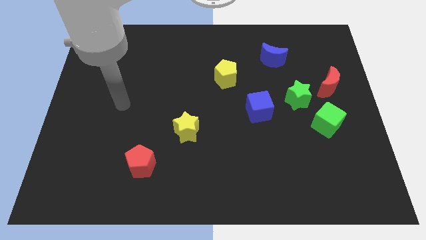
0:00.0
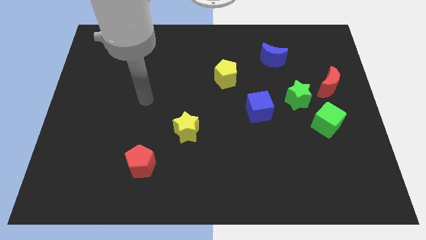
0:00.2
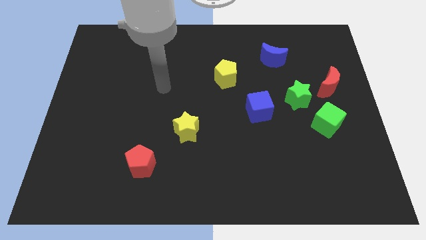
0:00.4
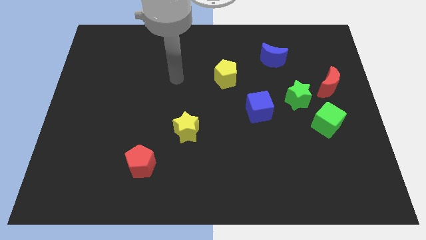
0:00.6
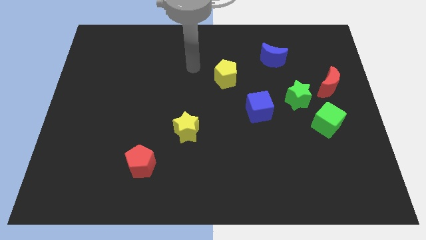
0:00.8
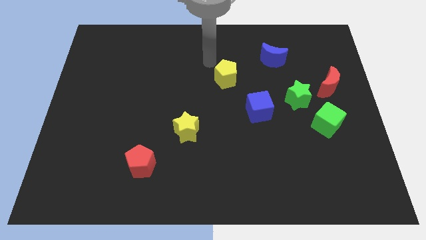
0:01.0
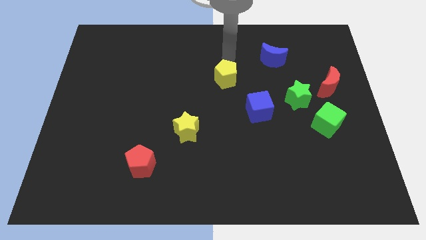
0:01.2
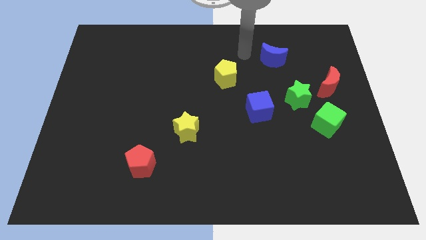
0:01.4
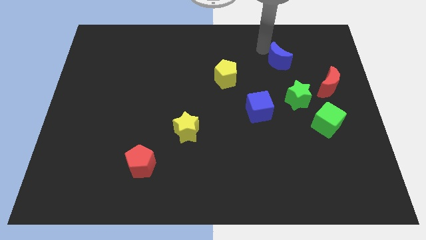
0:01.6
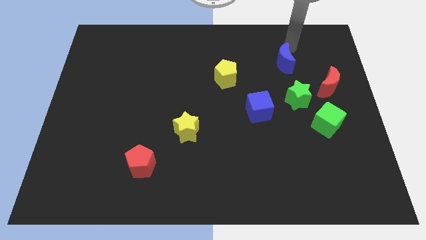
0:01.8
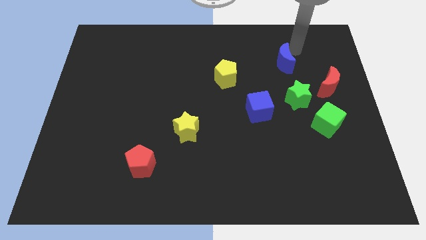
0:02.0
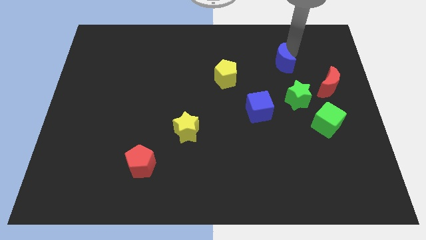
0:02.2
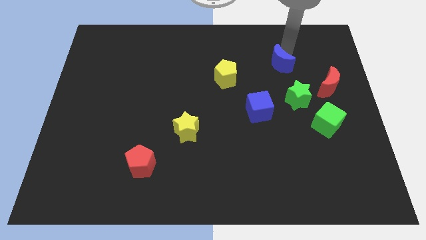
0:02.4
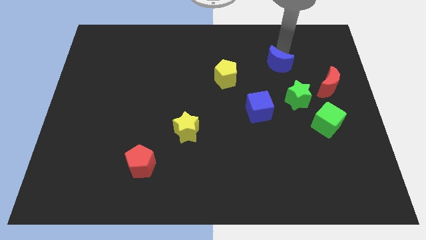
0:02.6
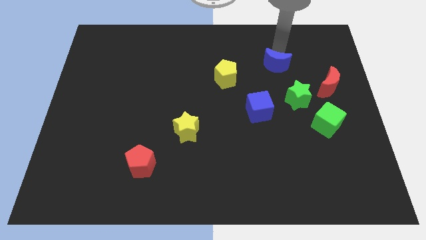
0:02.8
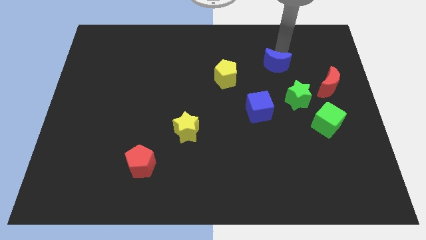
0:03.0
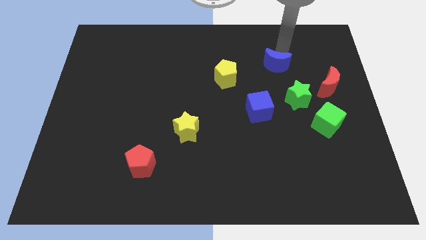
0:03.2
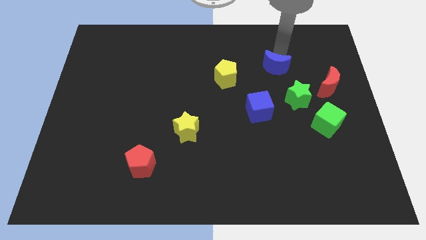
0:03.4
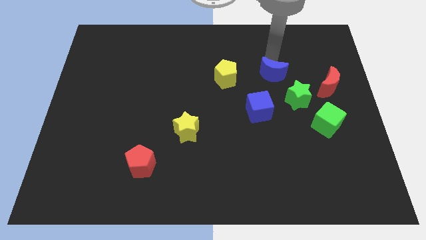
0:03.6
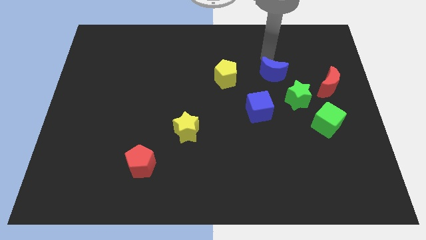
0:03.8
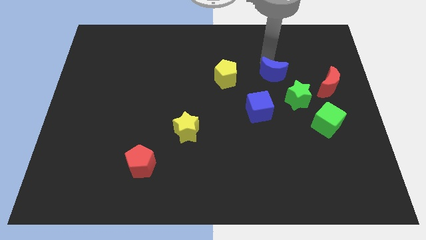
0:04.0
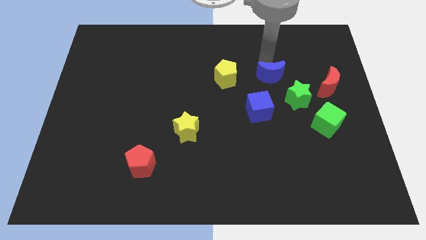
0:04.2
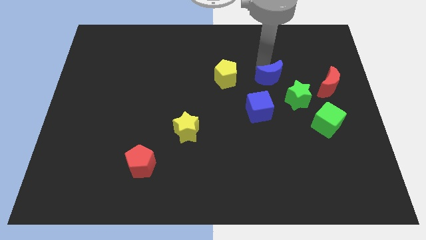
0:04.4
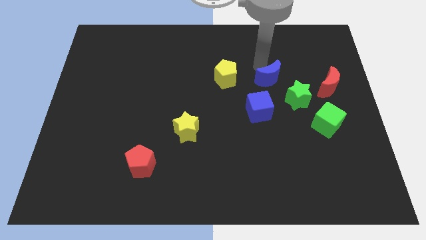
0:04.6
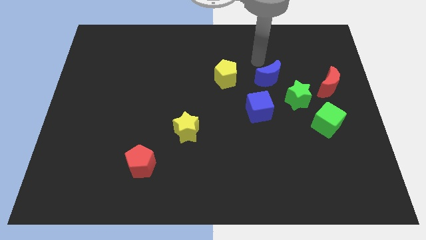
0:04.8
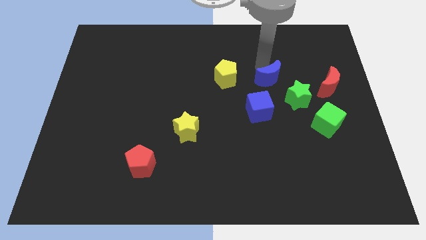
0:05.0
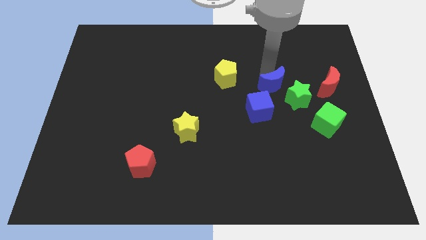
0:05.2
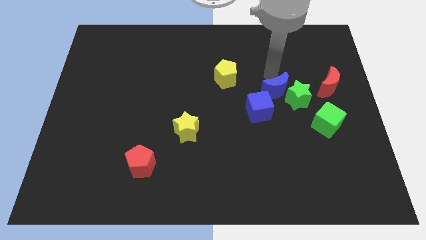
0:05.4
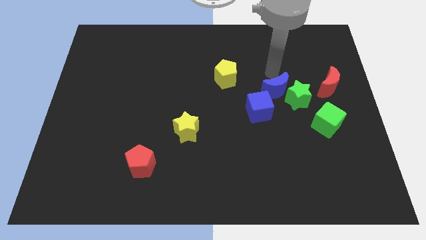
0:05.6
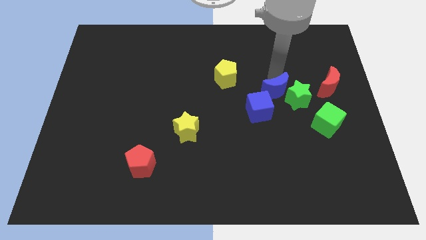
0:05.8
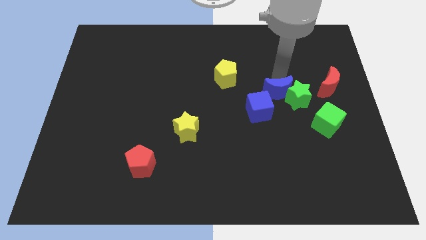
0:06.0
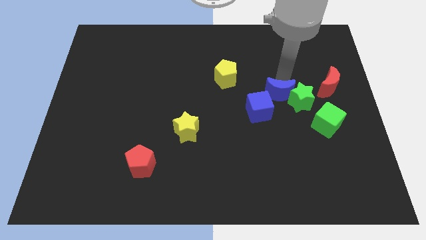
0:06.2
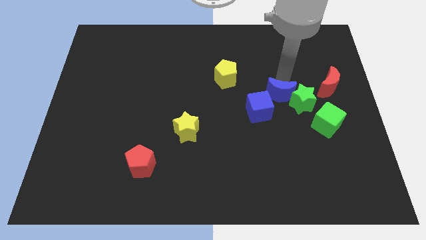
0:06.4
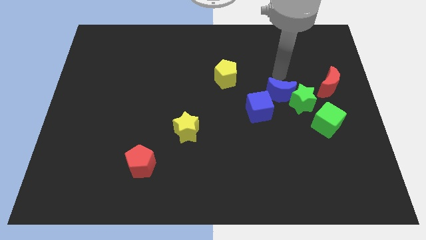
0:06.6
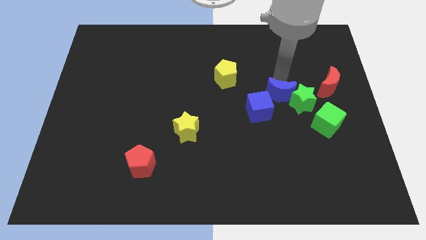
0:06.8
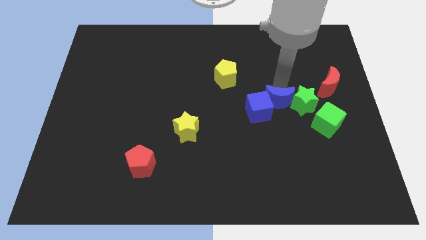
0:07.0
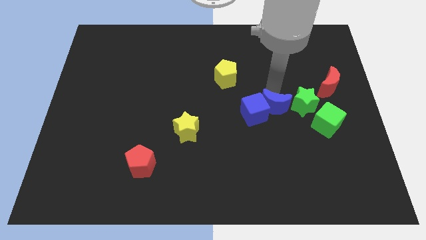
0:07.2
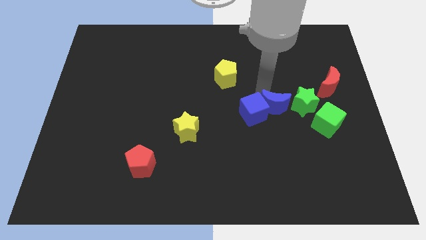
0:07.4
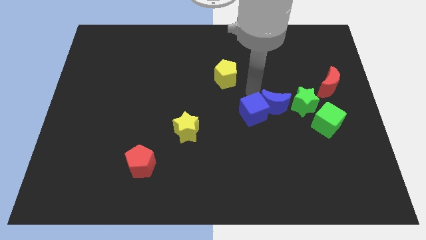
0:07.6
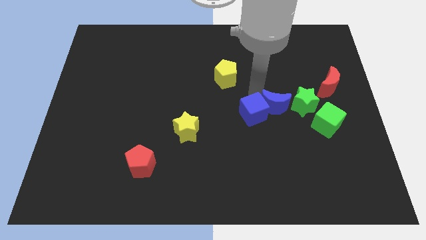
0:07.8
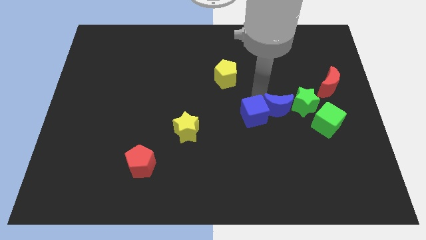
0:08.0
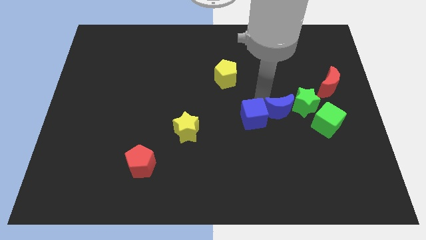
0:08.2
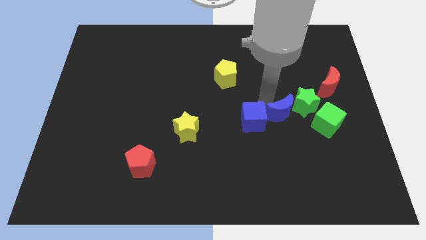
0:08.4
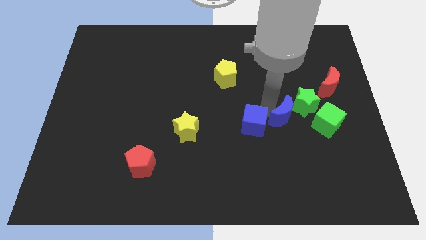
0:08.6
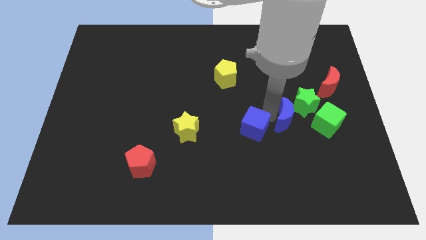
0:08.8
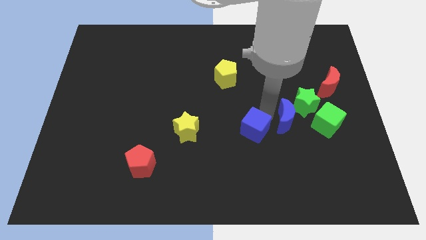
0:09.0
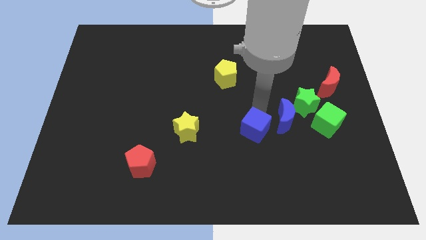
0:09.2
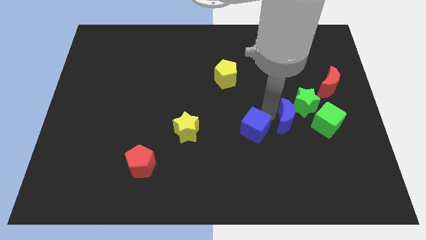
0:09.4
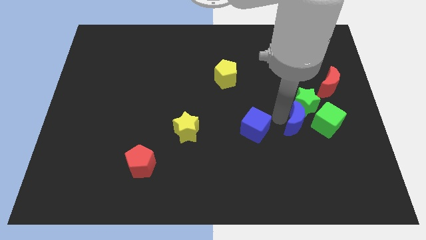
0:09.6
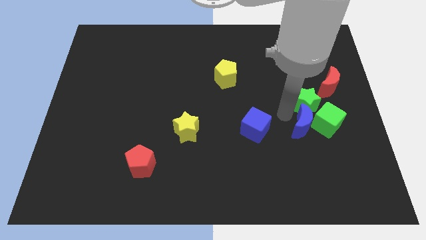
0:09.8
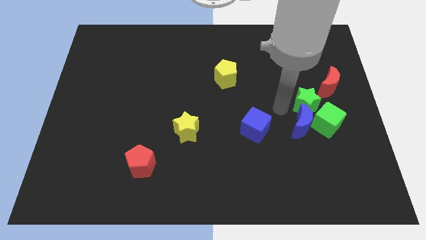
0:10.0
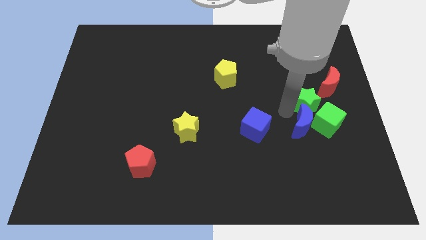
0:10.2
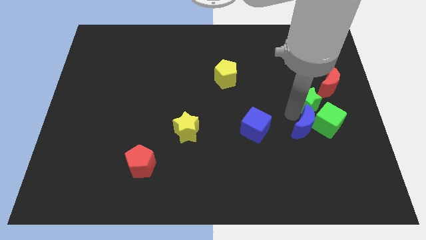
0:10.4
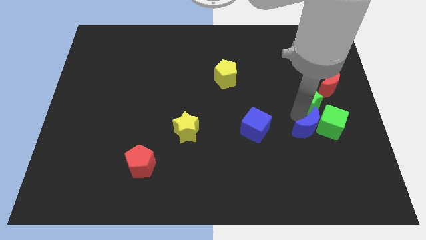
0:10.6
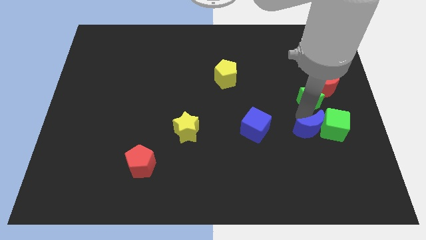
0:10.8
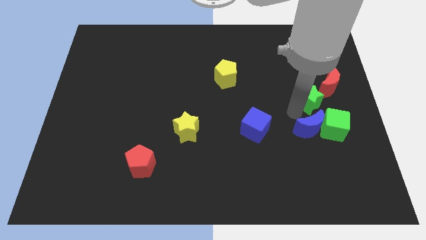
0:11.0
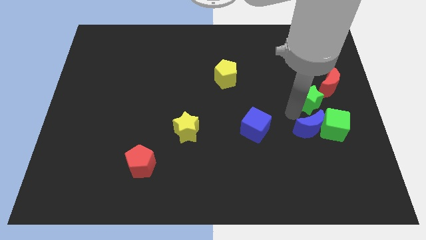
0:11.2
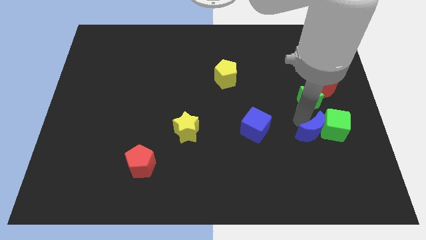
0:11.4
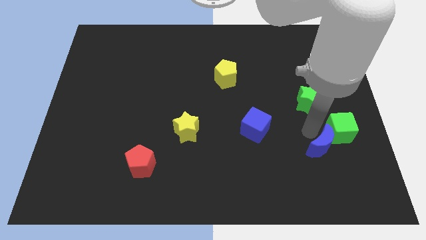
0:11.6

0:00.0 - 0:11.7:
push the blue moon to the bottom of the green cube

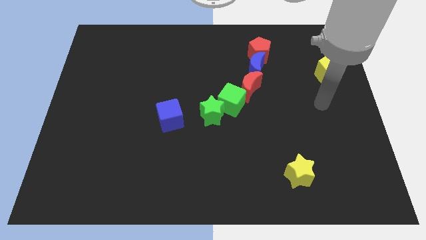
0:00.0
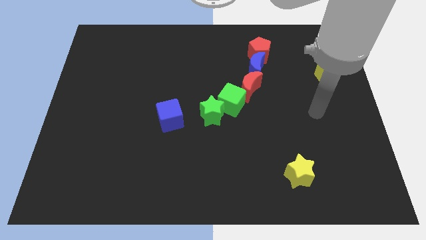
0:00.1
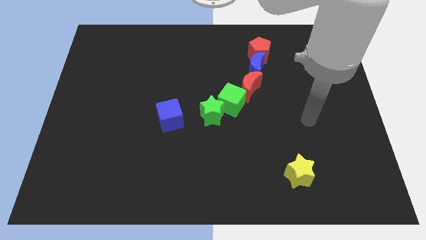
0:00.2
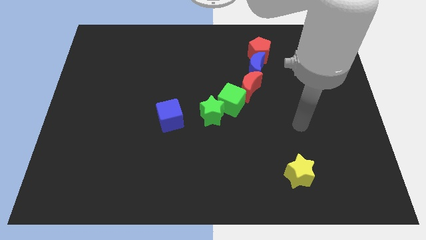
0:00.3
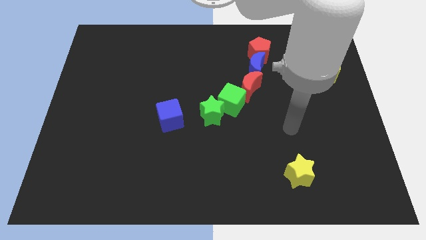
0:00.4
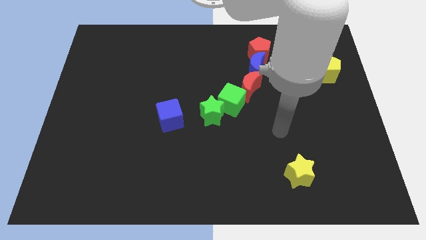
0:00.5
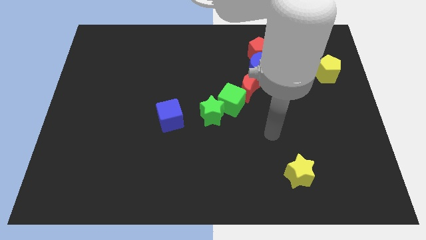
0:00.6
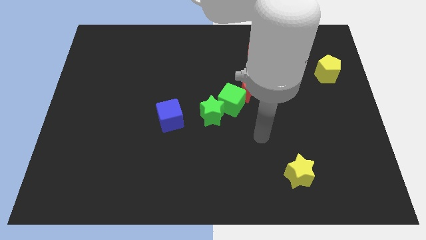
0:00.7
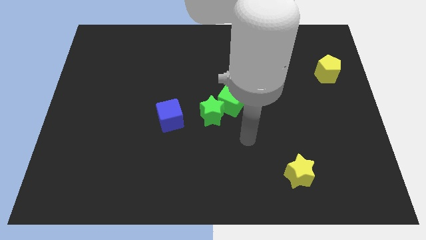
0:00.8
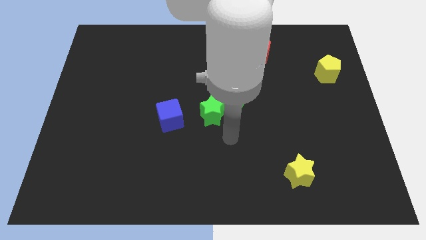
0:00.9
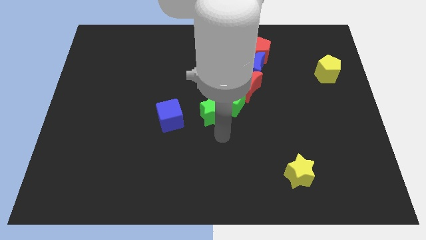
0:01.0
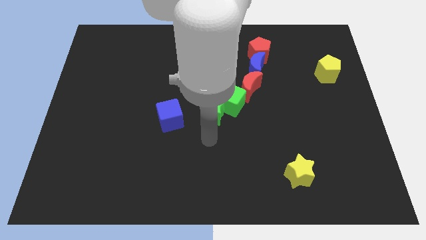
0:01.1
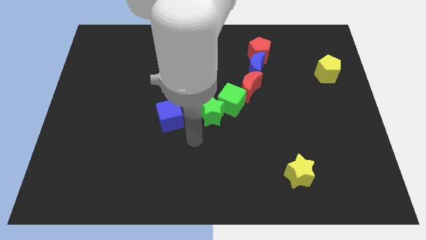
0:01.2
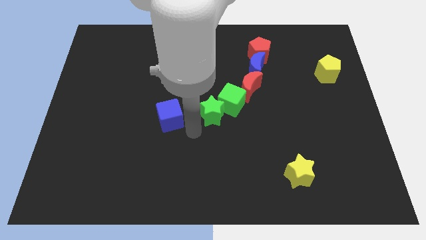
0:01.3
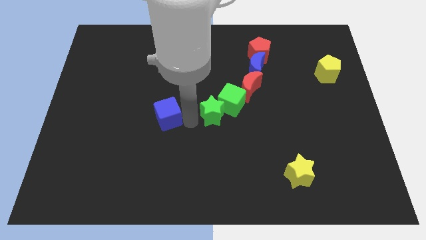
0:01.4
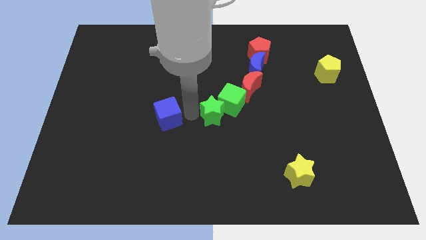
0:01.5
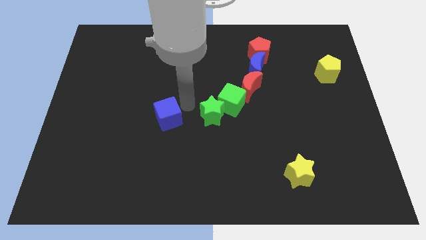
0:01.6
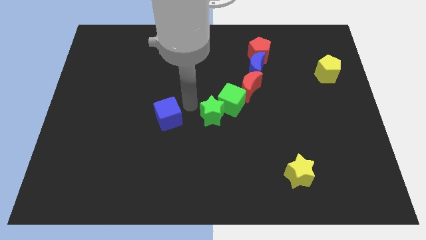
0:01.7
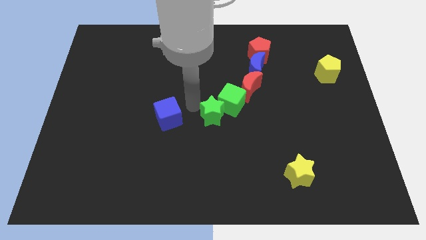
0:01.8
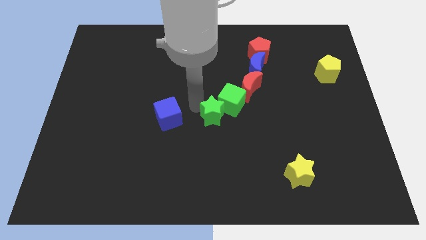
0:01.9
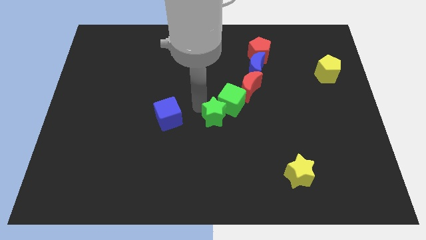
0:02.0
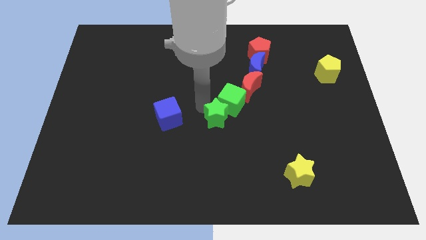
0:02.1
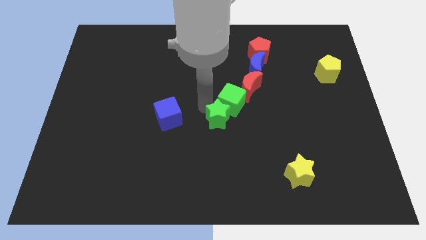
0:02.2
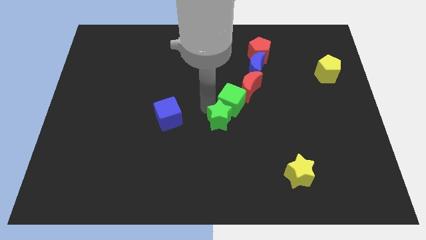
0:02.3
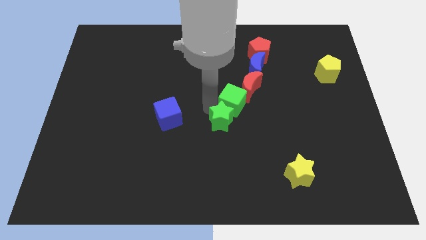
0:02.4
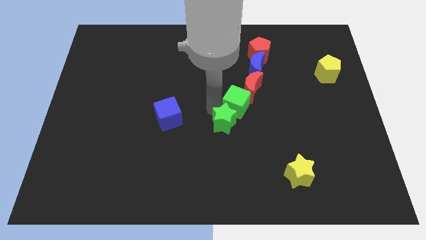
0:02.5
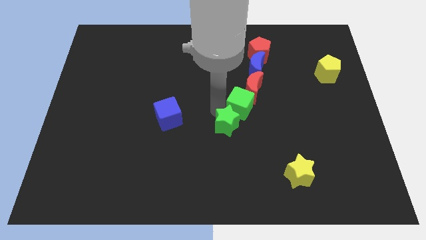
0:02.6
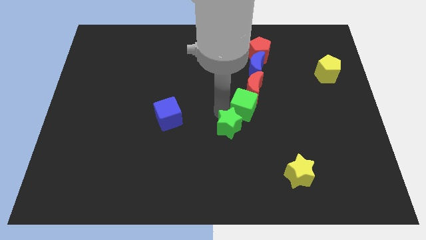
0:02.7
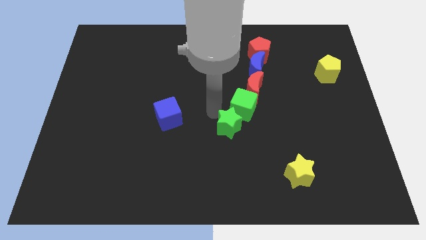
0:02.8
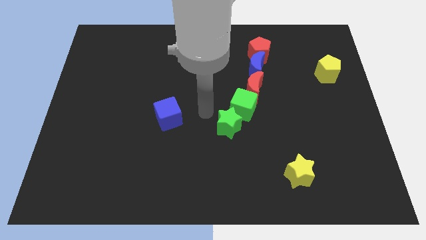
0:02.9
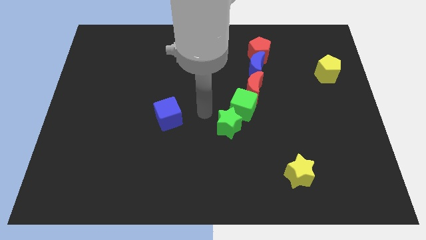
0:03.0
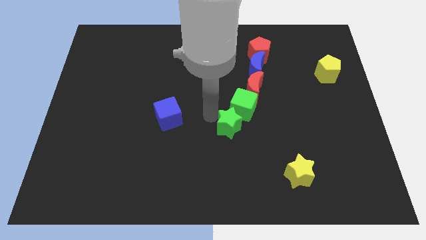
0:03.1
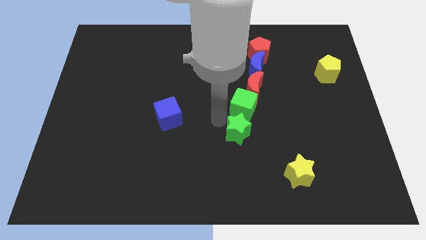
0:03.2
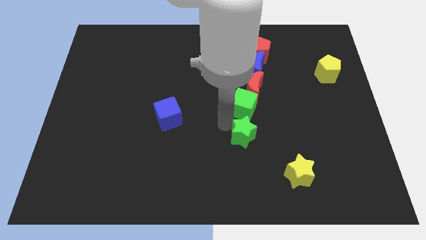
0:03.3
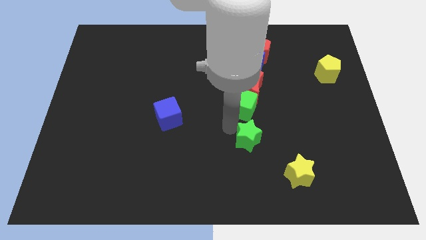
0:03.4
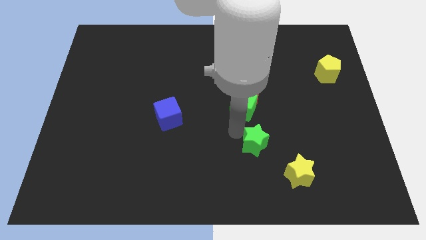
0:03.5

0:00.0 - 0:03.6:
slide the green star diagonally up and to the left of the yellow star
